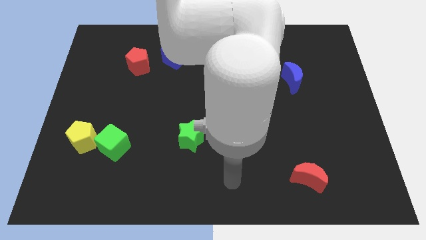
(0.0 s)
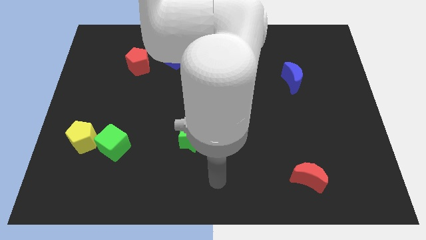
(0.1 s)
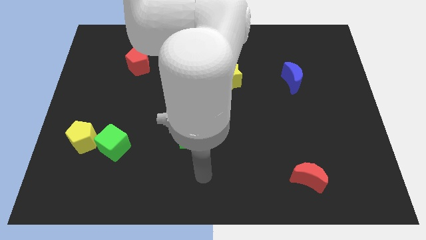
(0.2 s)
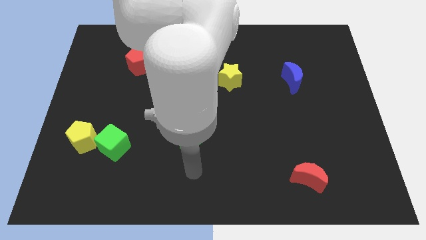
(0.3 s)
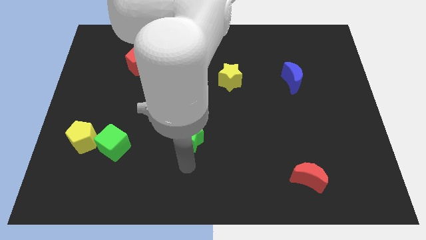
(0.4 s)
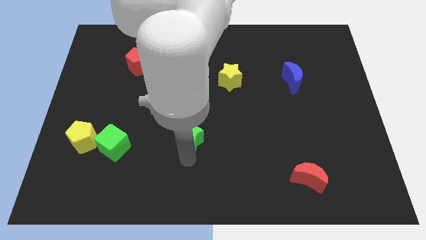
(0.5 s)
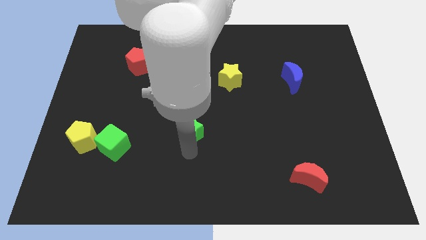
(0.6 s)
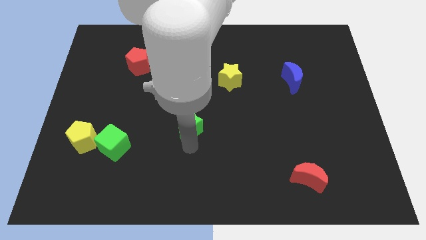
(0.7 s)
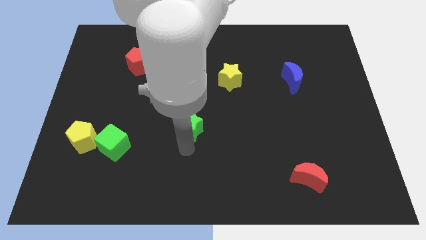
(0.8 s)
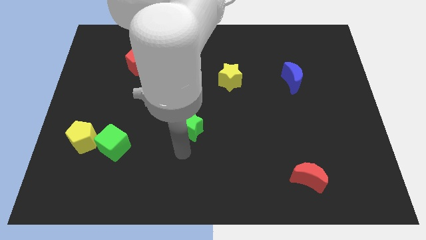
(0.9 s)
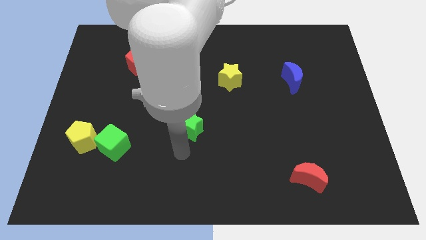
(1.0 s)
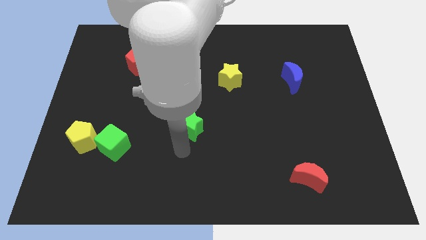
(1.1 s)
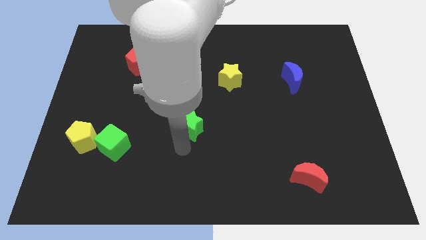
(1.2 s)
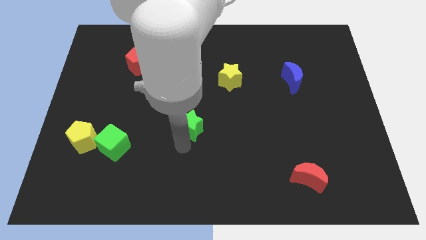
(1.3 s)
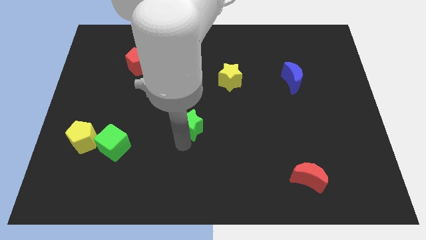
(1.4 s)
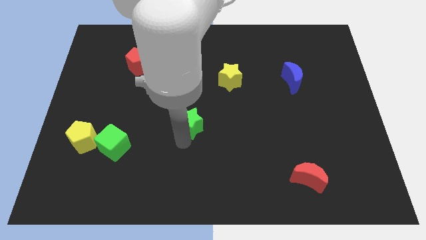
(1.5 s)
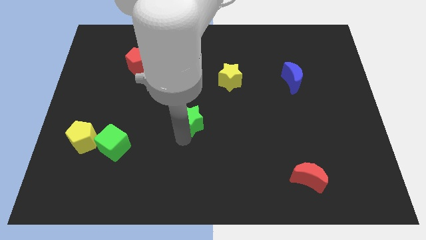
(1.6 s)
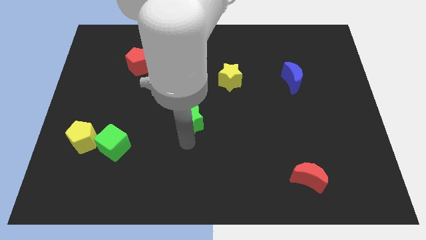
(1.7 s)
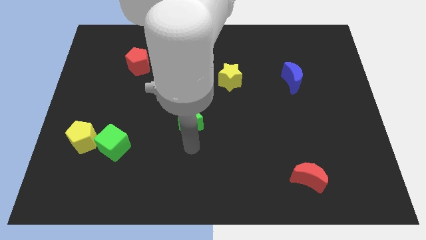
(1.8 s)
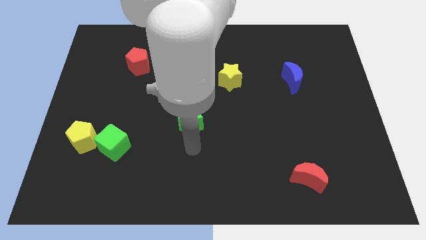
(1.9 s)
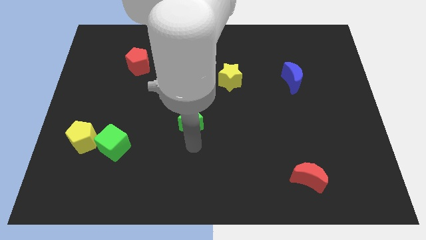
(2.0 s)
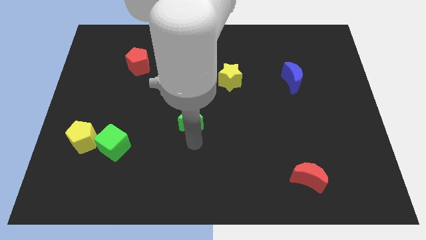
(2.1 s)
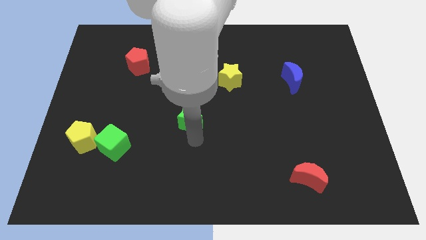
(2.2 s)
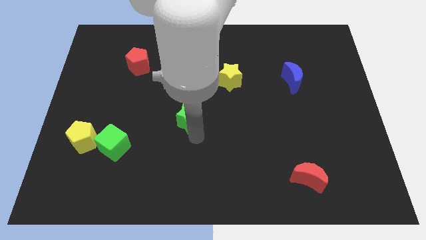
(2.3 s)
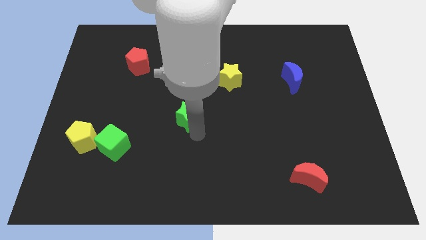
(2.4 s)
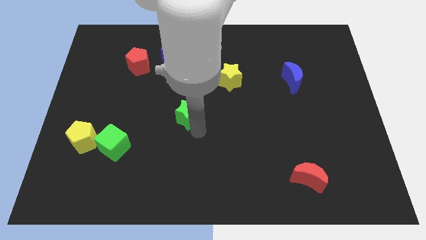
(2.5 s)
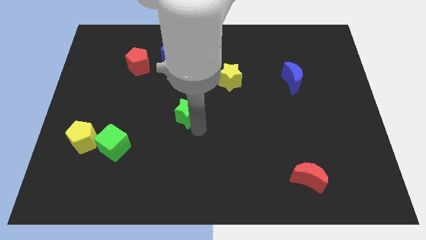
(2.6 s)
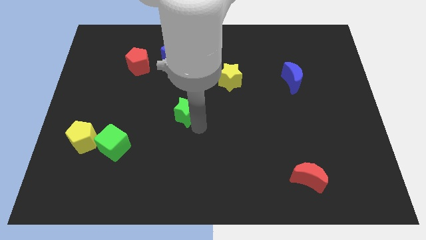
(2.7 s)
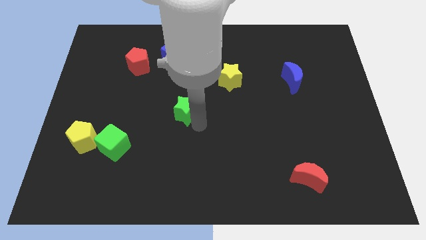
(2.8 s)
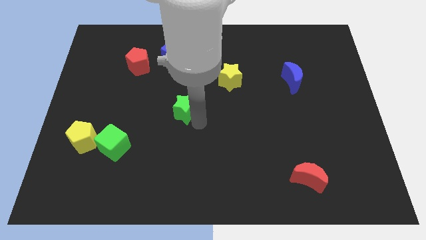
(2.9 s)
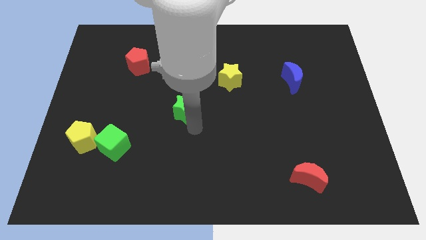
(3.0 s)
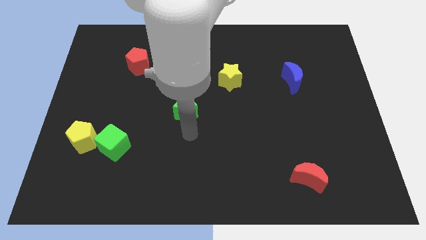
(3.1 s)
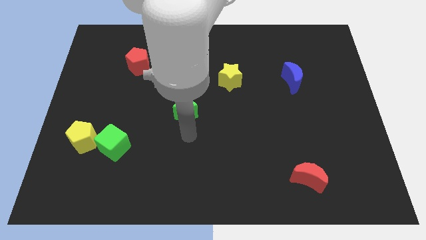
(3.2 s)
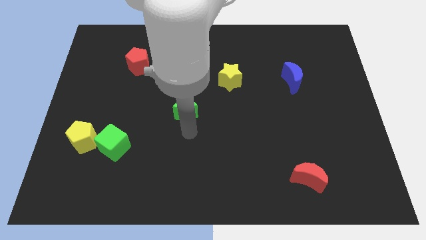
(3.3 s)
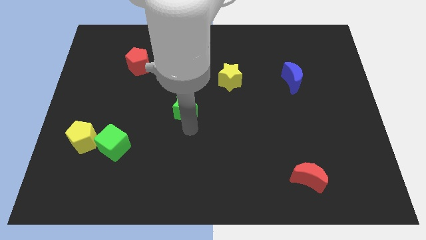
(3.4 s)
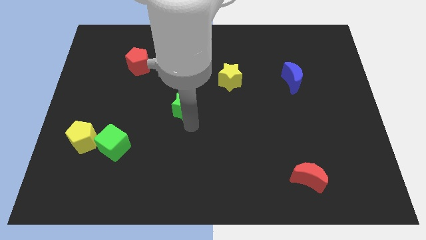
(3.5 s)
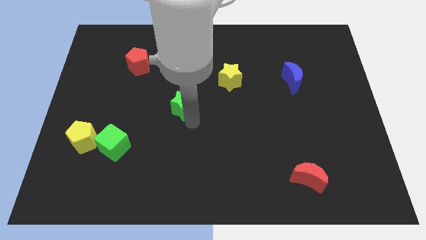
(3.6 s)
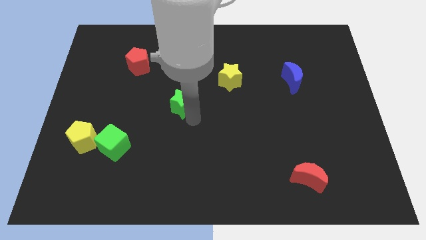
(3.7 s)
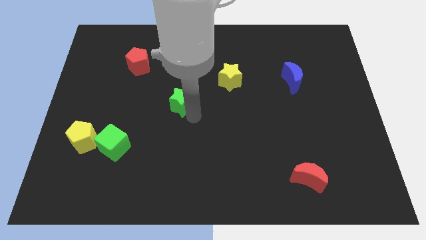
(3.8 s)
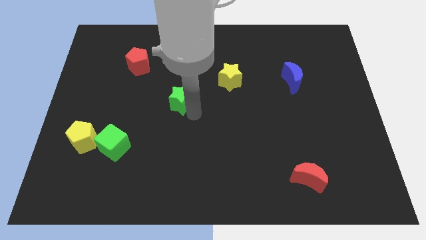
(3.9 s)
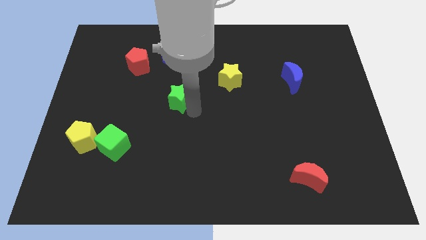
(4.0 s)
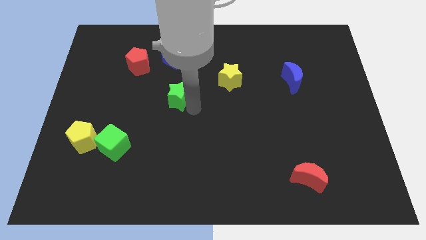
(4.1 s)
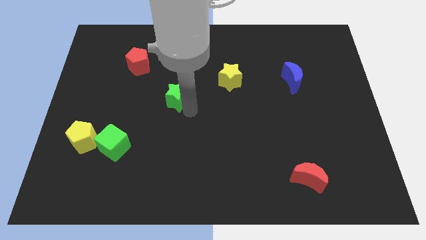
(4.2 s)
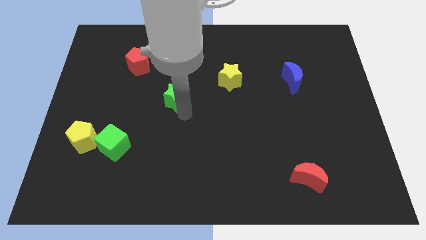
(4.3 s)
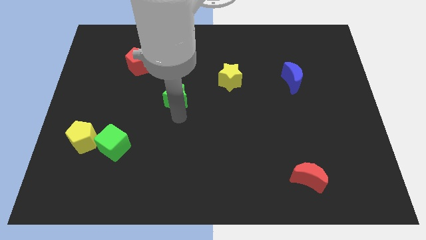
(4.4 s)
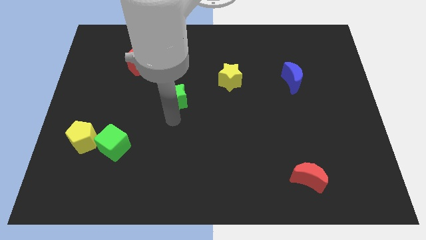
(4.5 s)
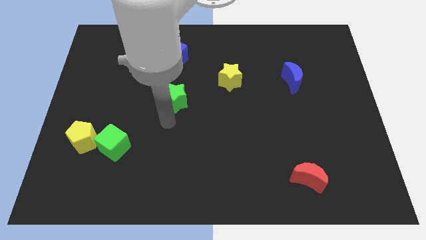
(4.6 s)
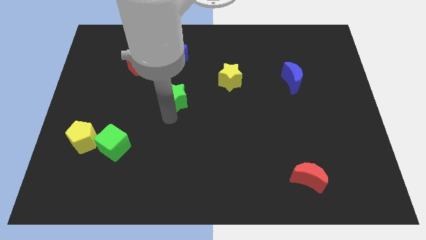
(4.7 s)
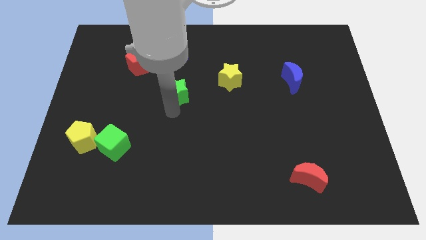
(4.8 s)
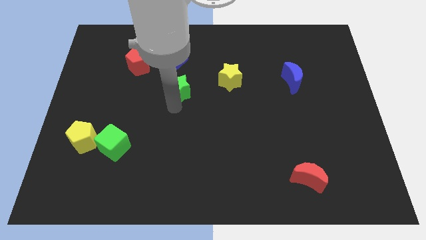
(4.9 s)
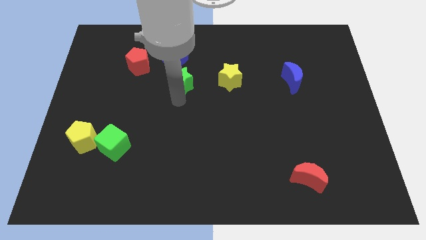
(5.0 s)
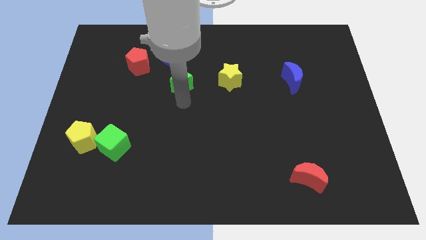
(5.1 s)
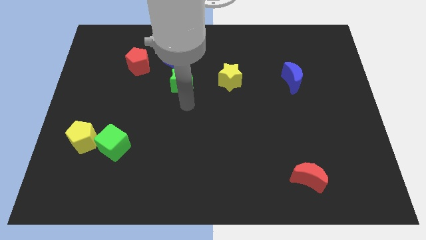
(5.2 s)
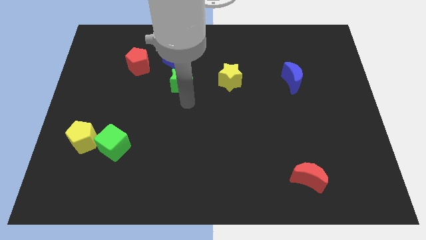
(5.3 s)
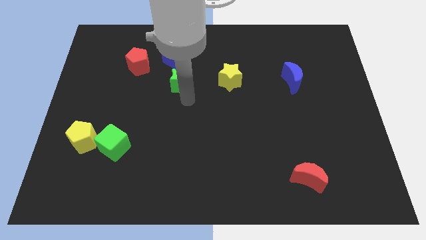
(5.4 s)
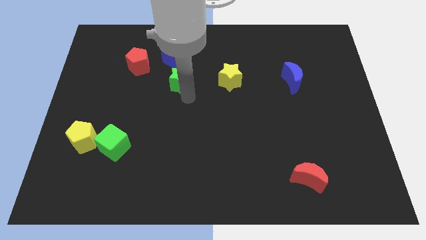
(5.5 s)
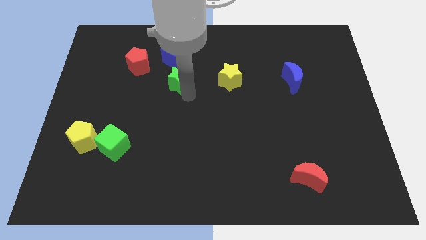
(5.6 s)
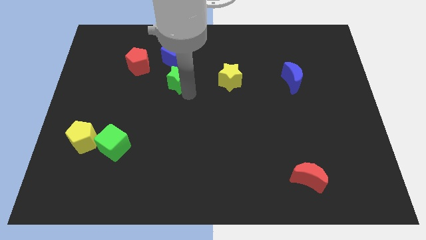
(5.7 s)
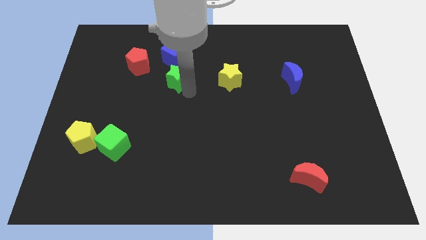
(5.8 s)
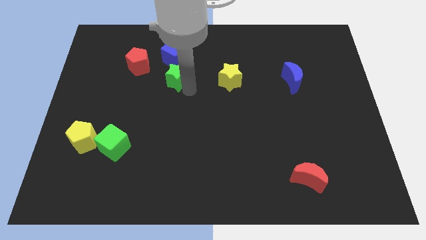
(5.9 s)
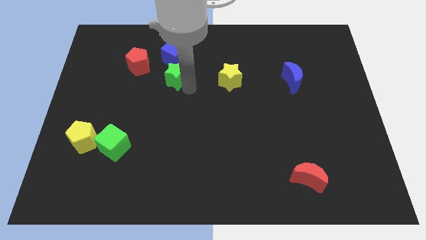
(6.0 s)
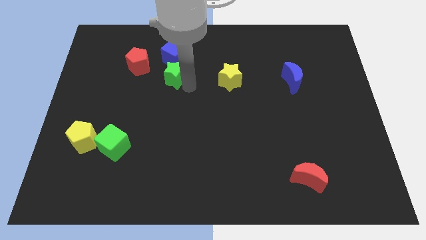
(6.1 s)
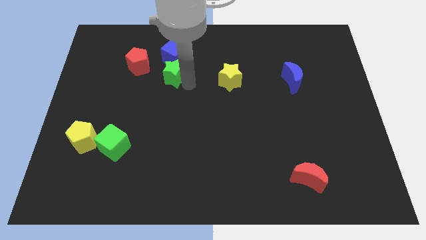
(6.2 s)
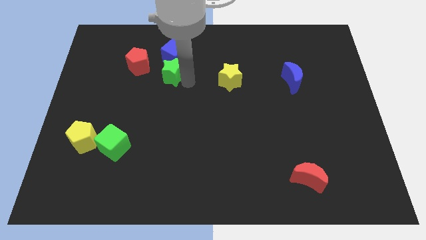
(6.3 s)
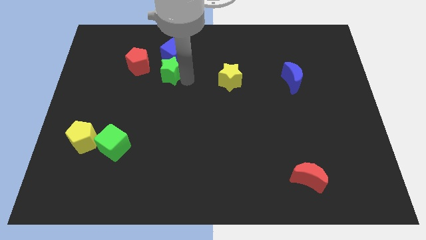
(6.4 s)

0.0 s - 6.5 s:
push the green star towards the blue cube

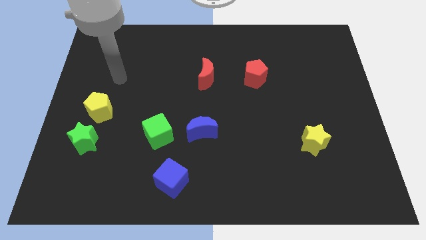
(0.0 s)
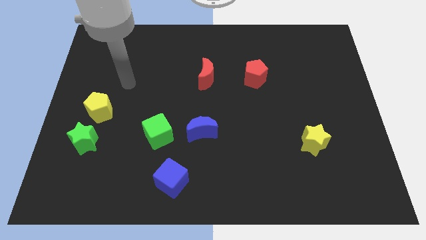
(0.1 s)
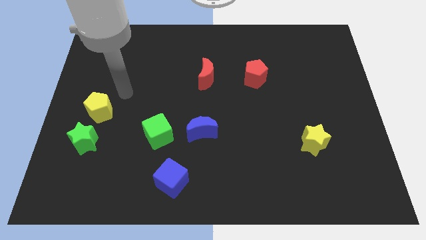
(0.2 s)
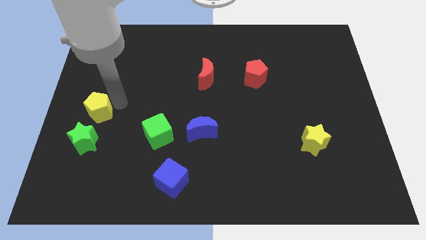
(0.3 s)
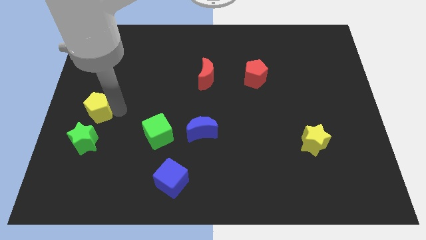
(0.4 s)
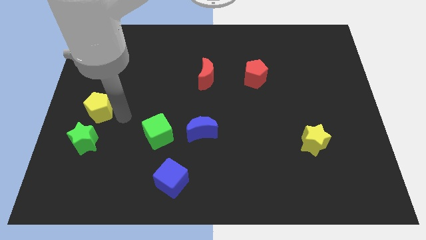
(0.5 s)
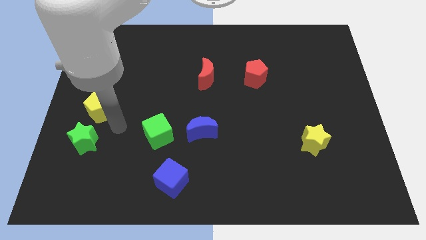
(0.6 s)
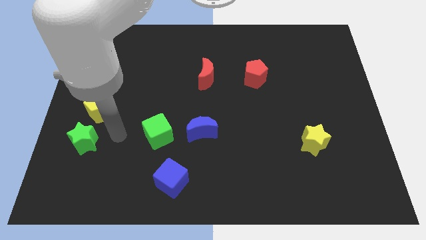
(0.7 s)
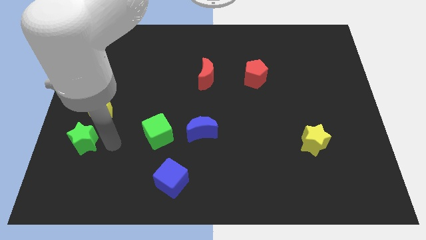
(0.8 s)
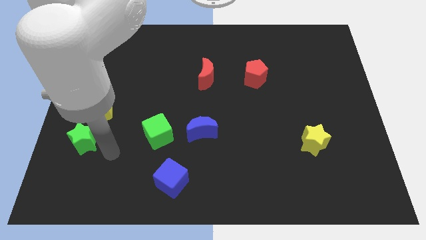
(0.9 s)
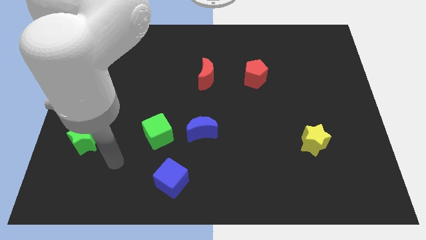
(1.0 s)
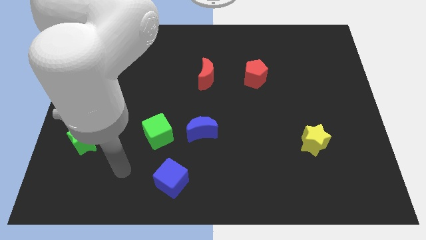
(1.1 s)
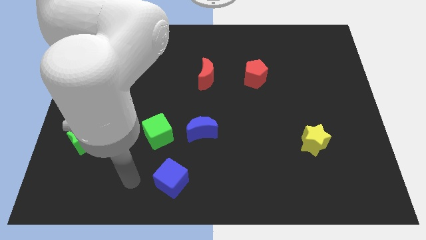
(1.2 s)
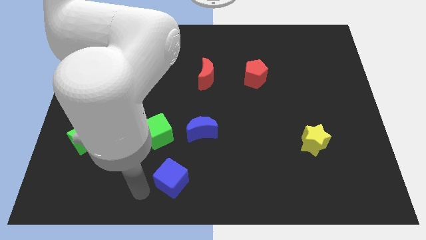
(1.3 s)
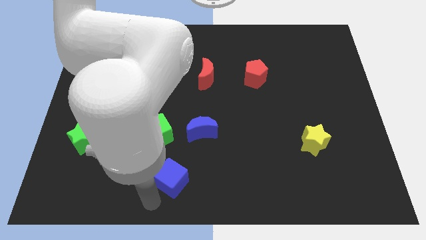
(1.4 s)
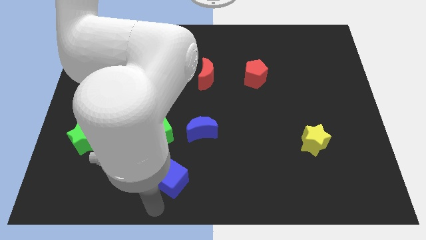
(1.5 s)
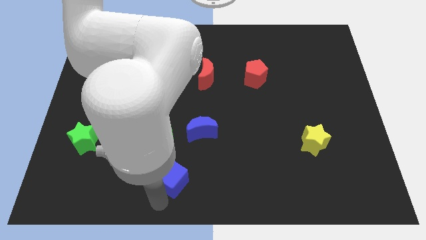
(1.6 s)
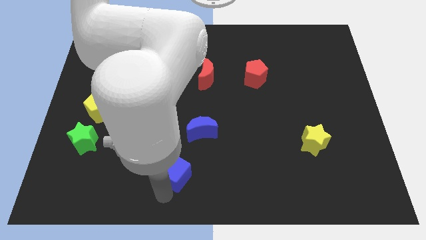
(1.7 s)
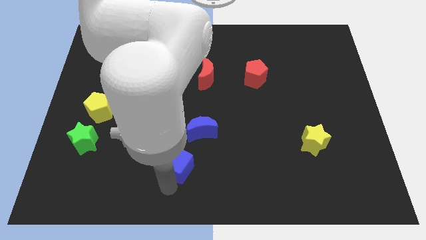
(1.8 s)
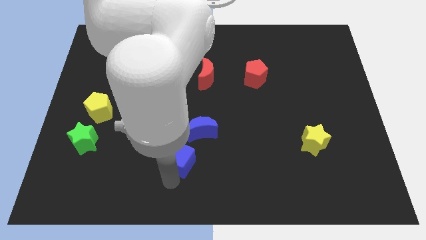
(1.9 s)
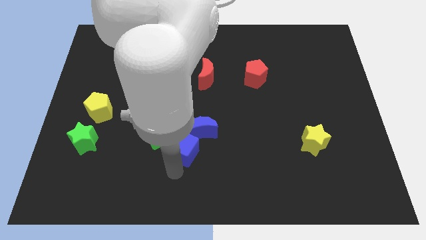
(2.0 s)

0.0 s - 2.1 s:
put the blue cube towards the blue moon

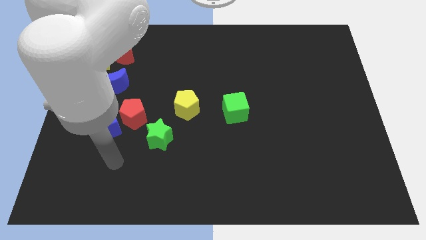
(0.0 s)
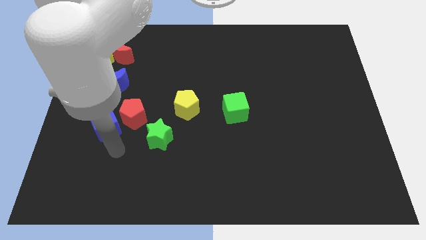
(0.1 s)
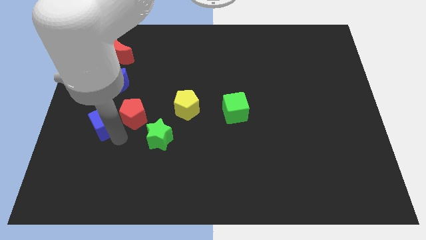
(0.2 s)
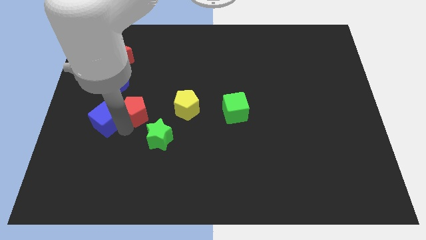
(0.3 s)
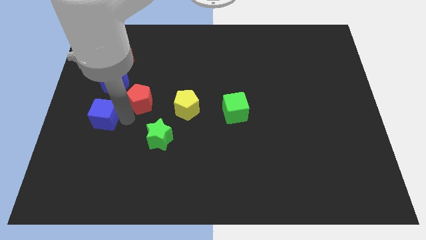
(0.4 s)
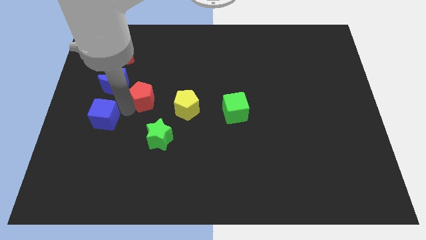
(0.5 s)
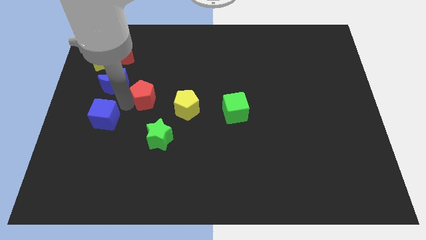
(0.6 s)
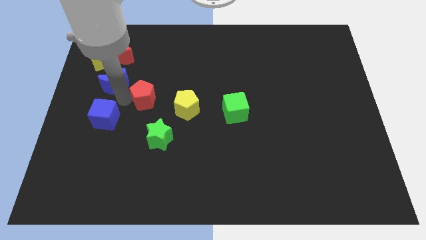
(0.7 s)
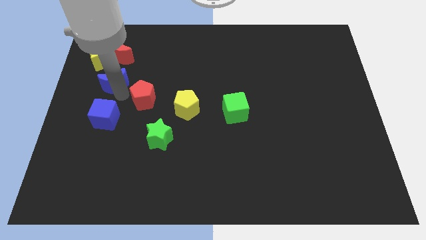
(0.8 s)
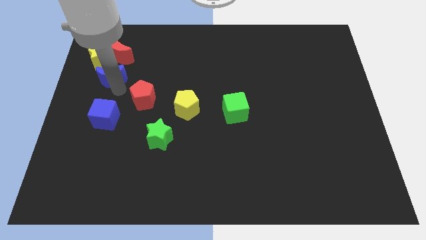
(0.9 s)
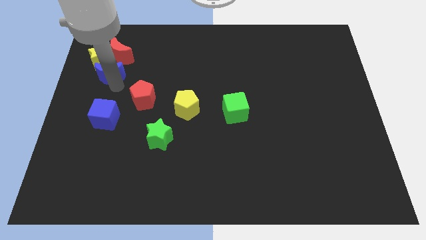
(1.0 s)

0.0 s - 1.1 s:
put the blue moon close to the yellow star
